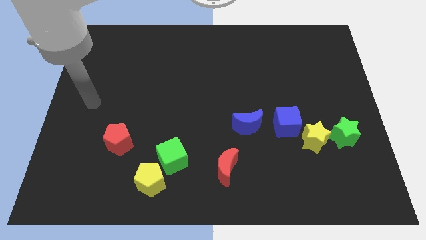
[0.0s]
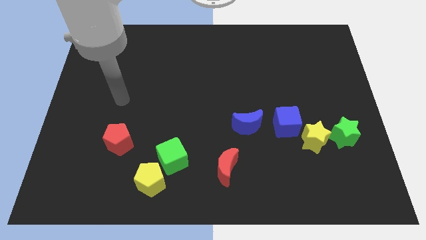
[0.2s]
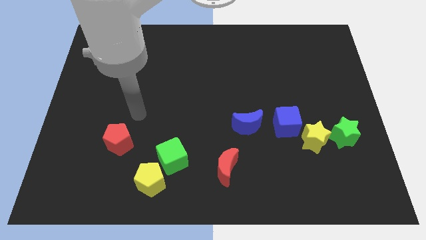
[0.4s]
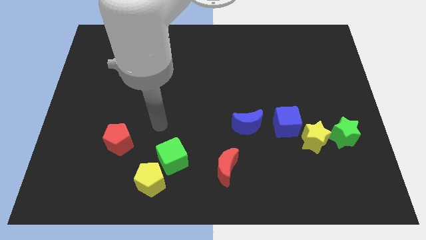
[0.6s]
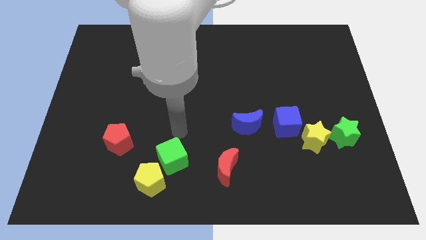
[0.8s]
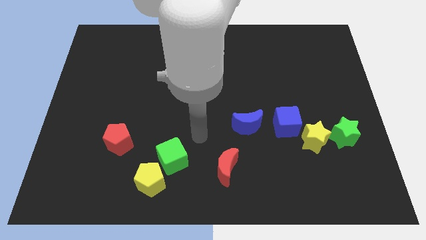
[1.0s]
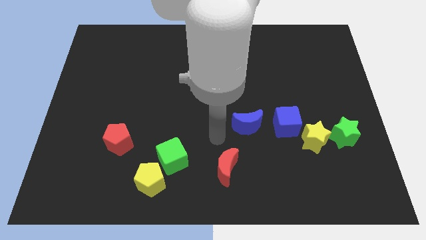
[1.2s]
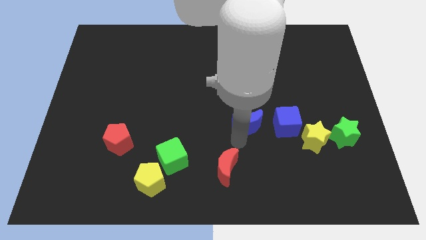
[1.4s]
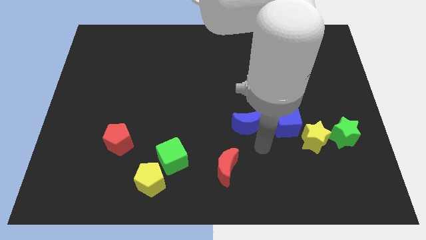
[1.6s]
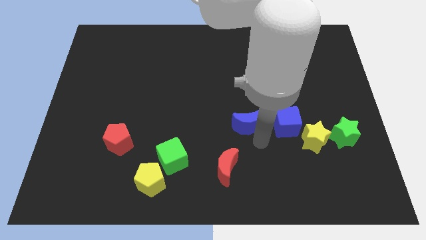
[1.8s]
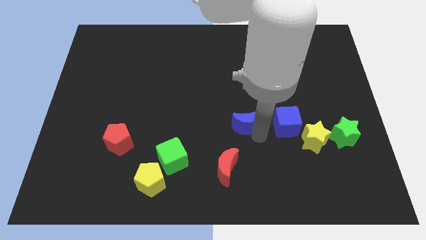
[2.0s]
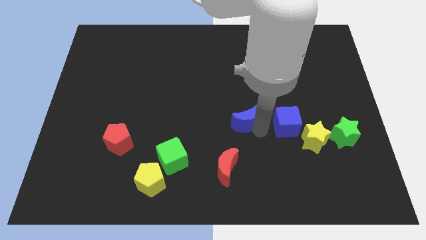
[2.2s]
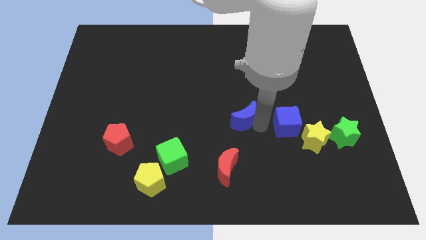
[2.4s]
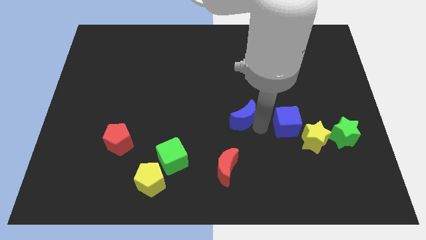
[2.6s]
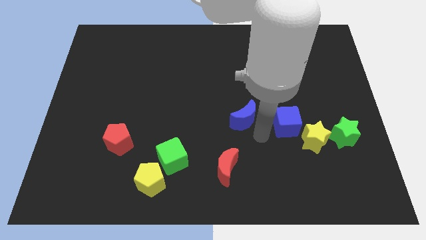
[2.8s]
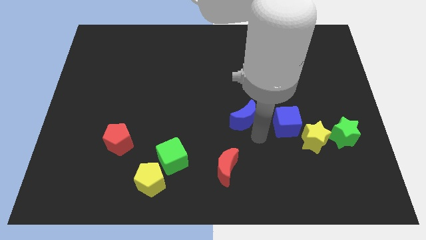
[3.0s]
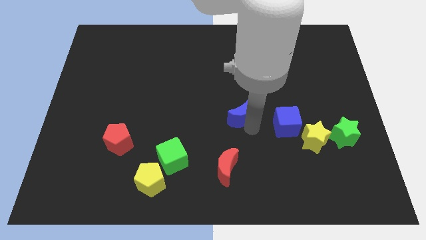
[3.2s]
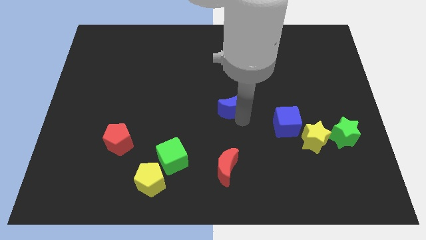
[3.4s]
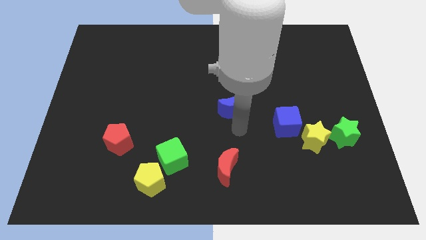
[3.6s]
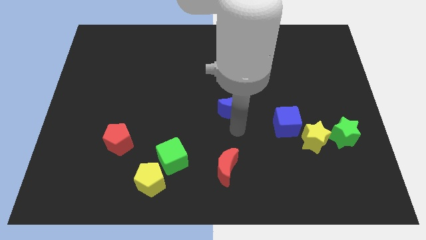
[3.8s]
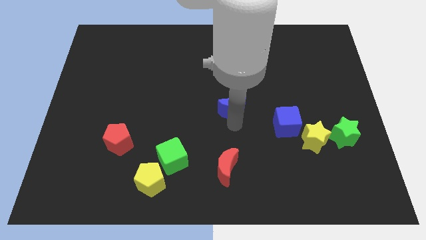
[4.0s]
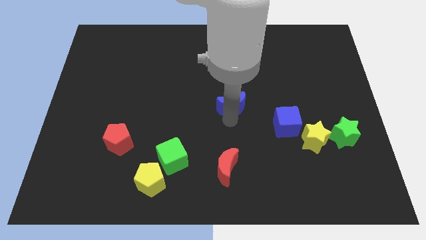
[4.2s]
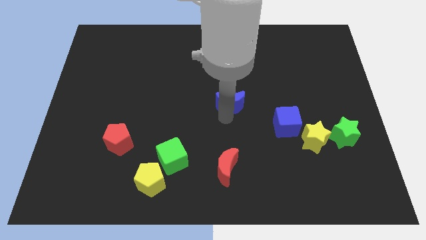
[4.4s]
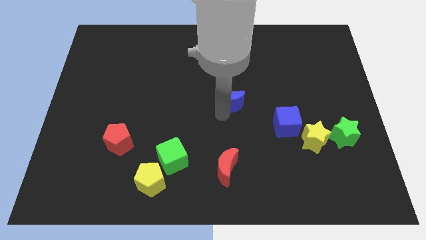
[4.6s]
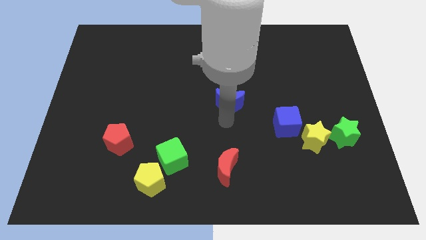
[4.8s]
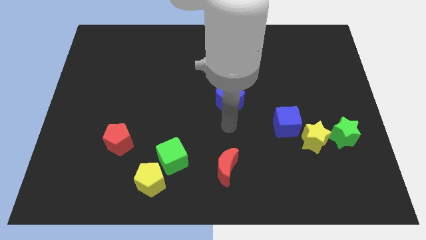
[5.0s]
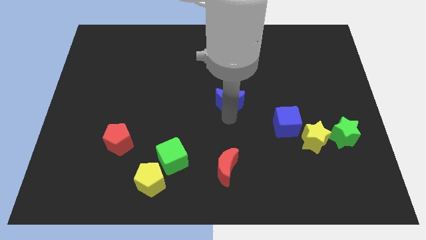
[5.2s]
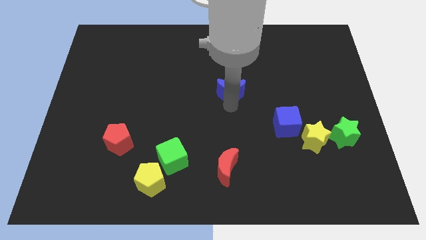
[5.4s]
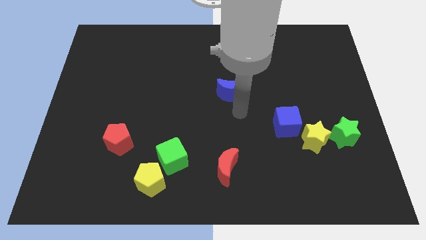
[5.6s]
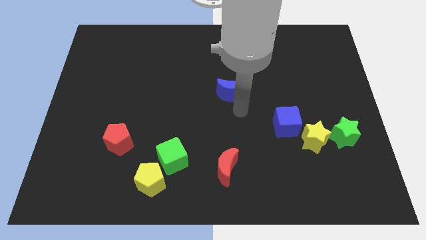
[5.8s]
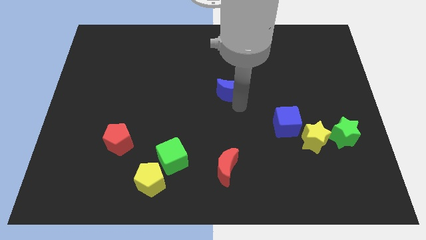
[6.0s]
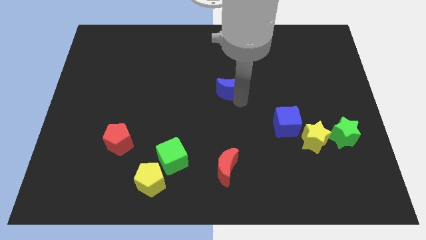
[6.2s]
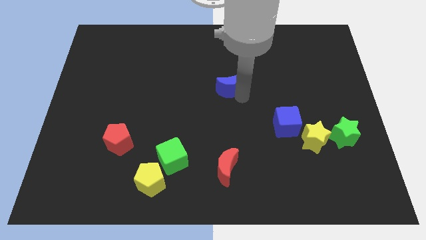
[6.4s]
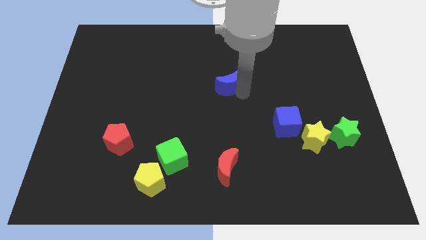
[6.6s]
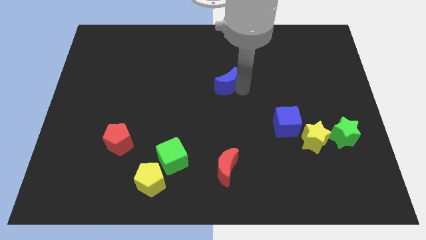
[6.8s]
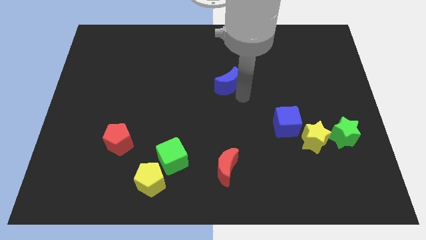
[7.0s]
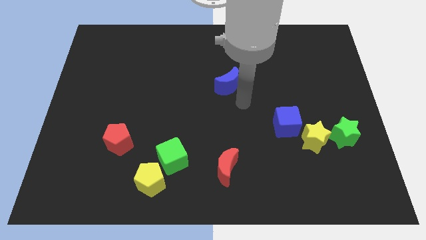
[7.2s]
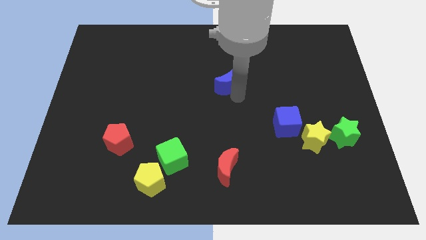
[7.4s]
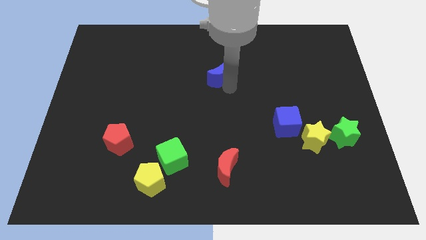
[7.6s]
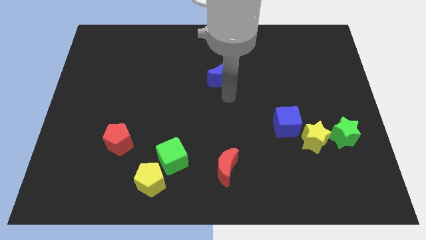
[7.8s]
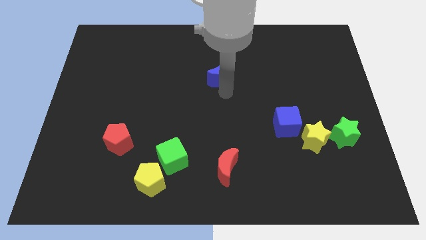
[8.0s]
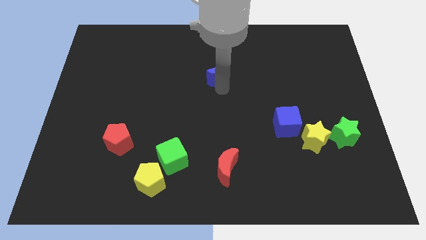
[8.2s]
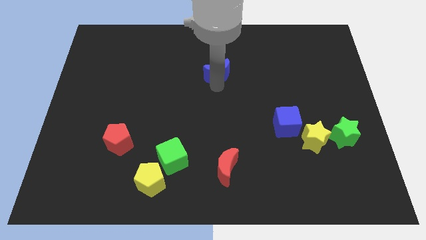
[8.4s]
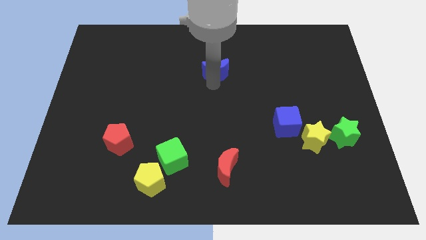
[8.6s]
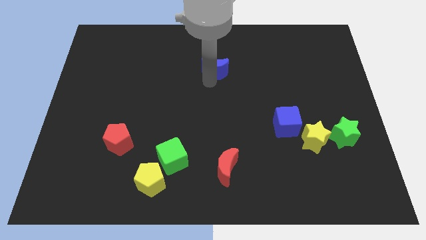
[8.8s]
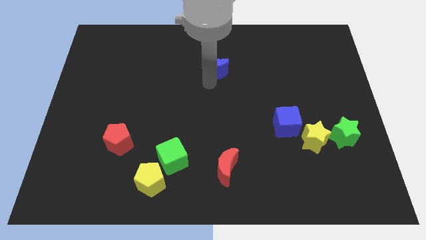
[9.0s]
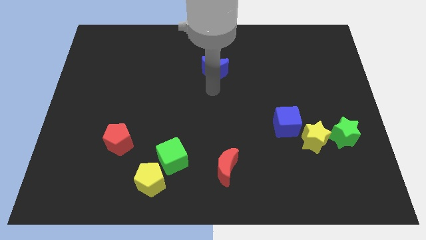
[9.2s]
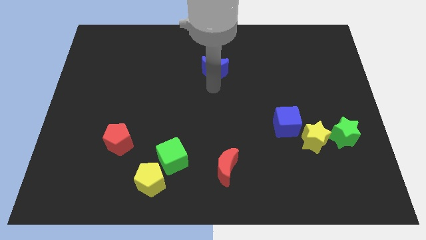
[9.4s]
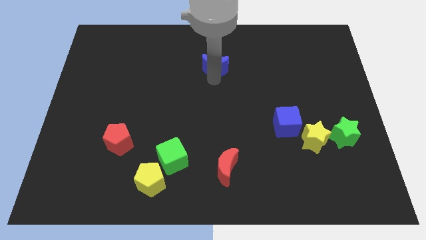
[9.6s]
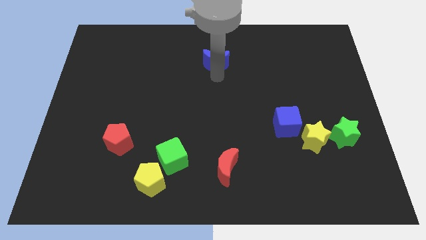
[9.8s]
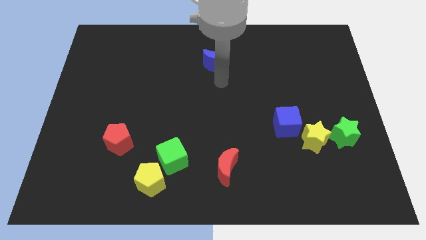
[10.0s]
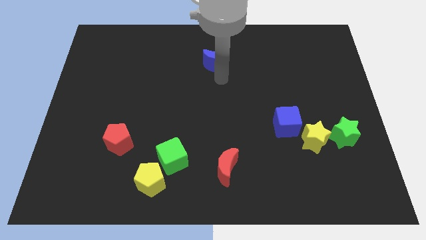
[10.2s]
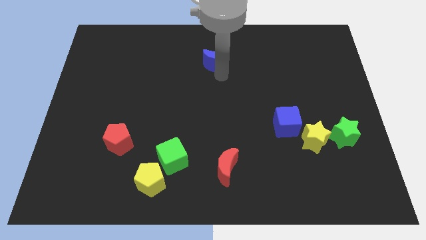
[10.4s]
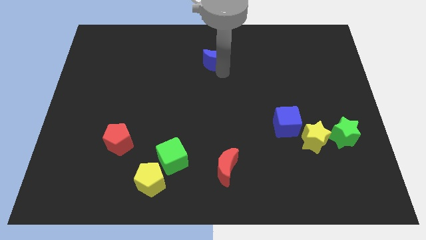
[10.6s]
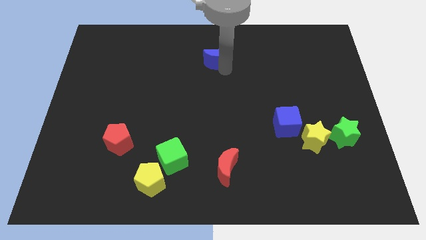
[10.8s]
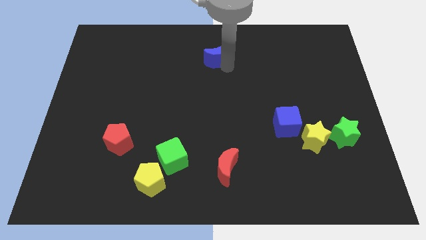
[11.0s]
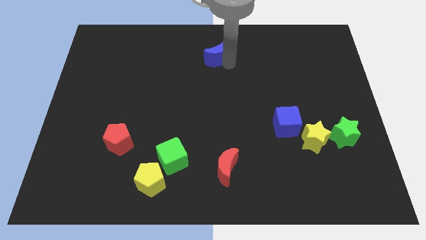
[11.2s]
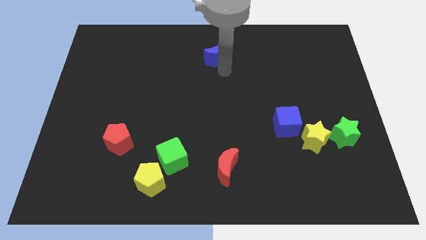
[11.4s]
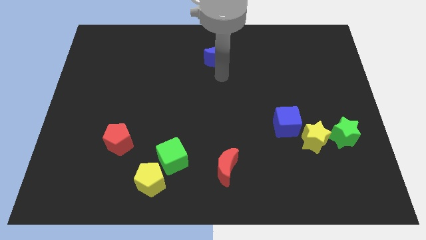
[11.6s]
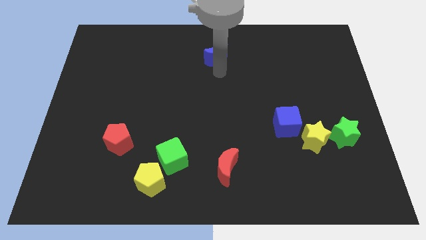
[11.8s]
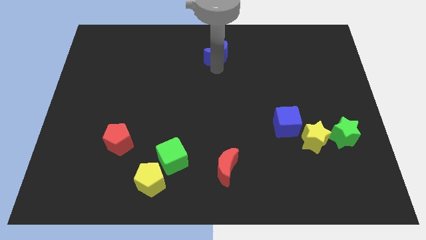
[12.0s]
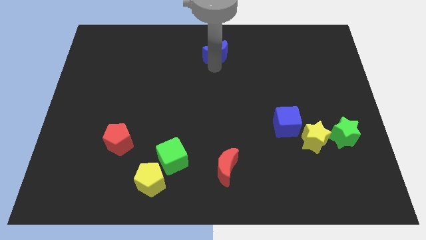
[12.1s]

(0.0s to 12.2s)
move the blue moon to the top side
